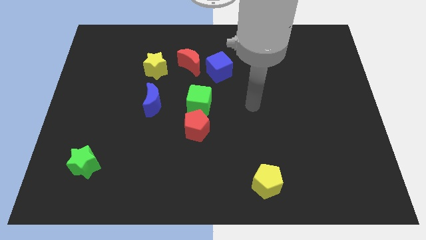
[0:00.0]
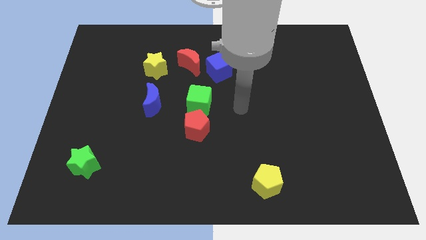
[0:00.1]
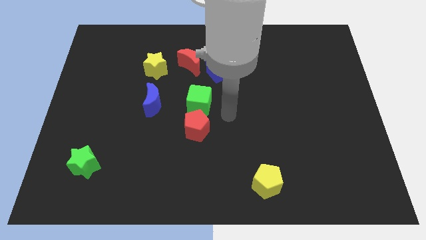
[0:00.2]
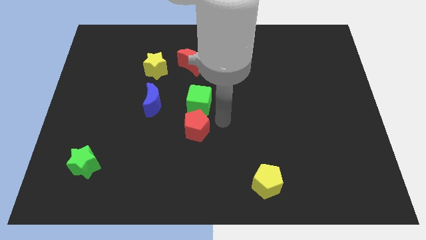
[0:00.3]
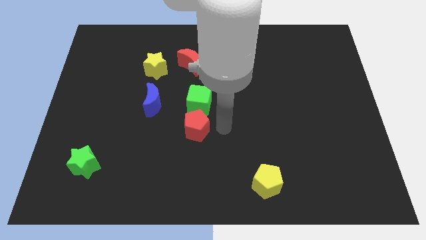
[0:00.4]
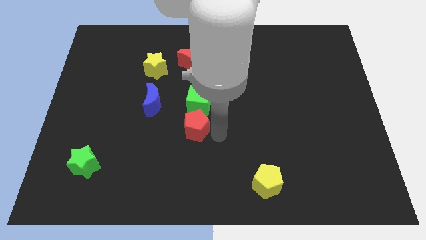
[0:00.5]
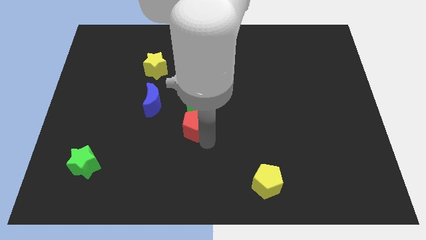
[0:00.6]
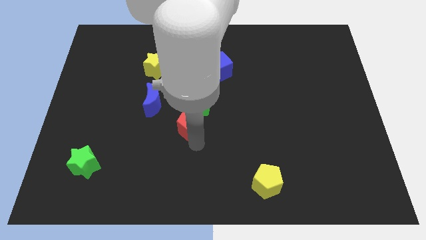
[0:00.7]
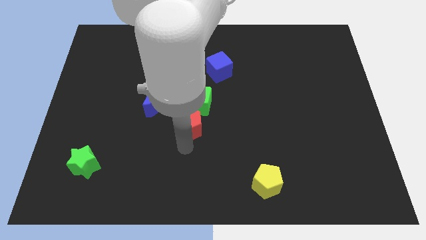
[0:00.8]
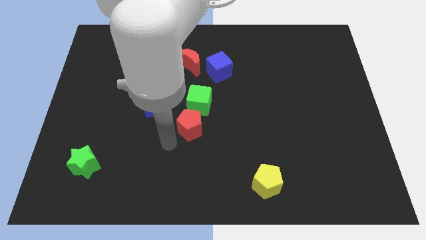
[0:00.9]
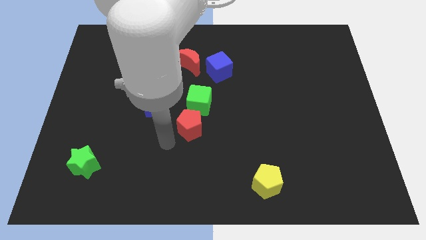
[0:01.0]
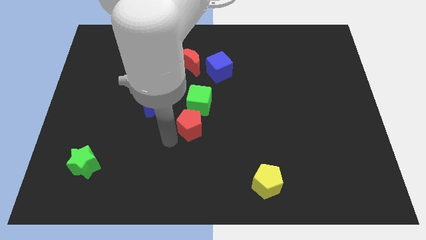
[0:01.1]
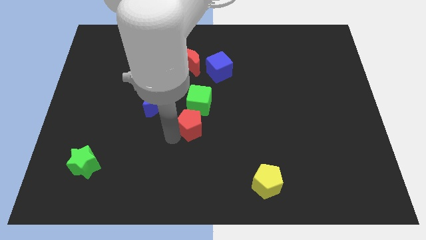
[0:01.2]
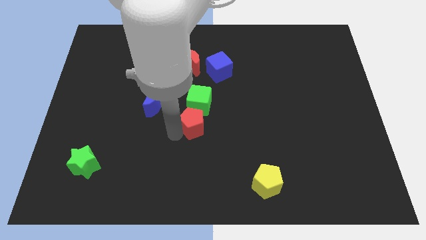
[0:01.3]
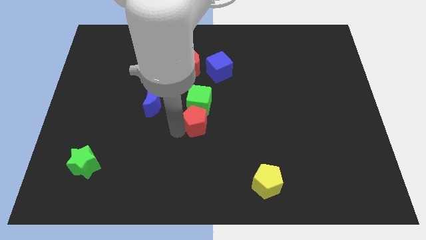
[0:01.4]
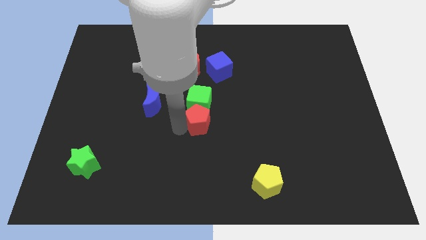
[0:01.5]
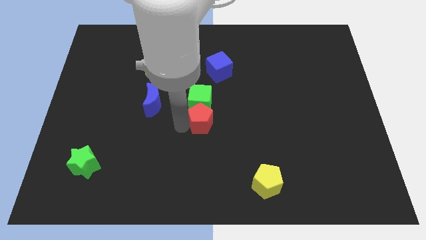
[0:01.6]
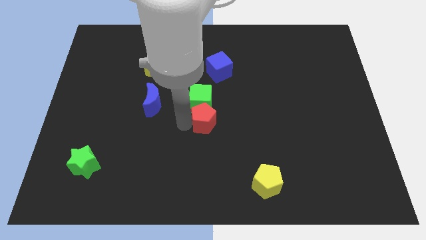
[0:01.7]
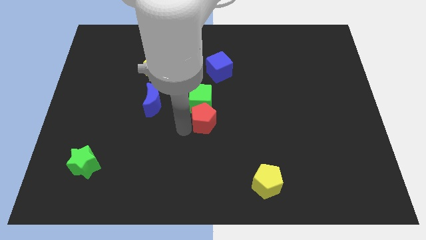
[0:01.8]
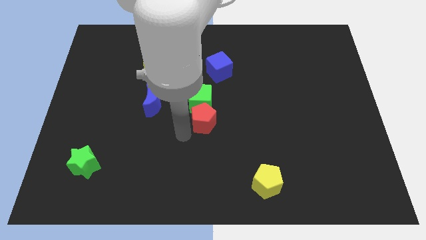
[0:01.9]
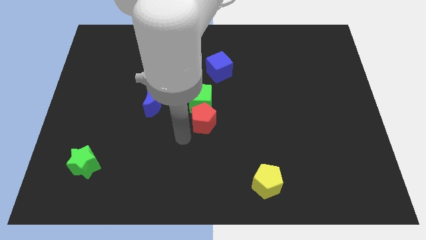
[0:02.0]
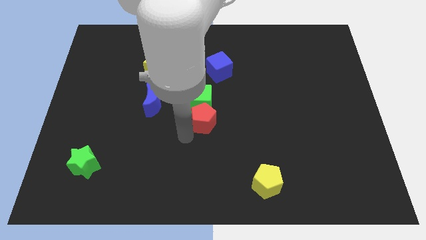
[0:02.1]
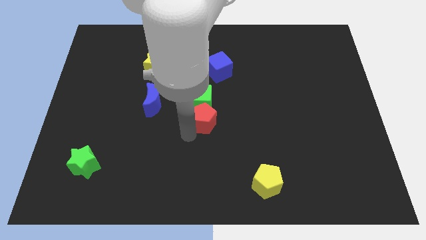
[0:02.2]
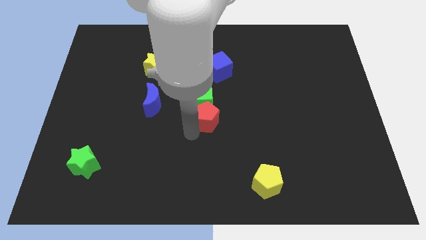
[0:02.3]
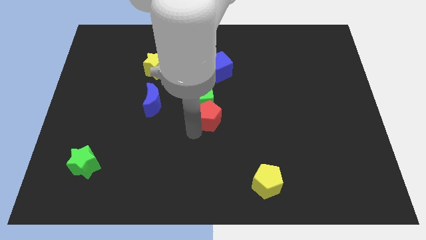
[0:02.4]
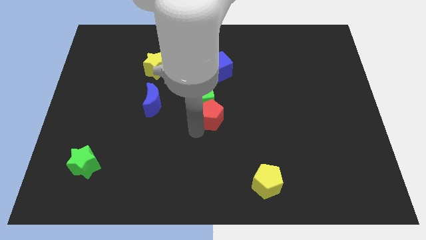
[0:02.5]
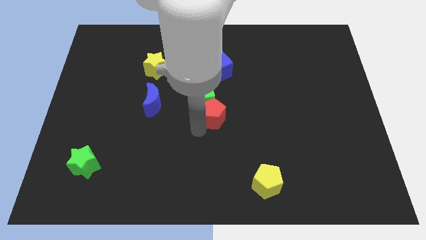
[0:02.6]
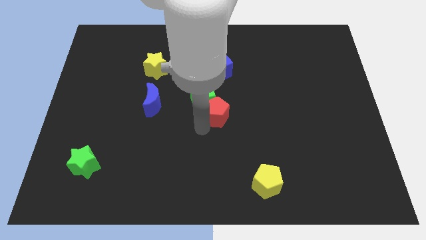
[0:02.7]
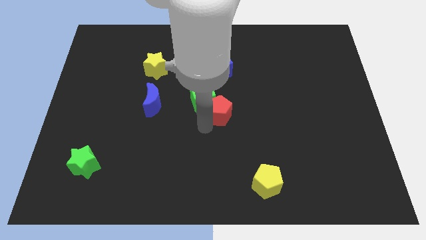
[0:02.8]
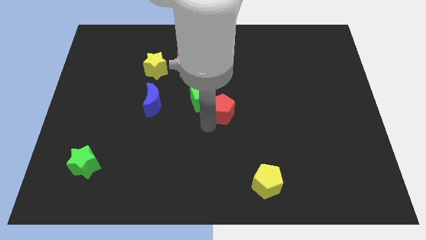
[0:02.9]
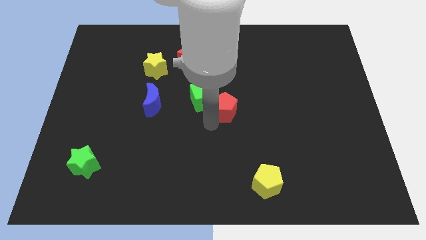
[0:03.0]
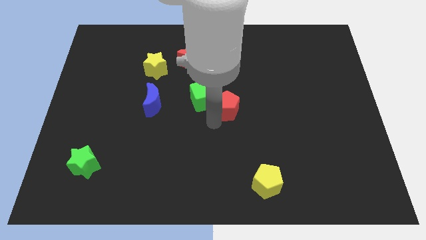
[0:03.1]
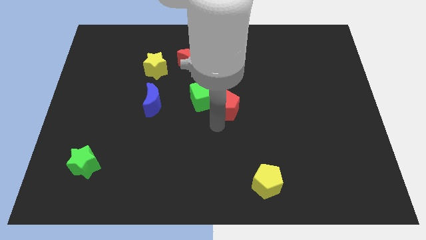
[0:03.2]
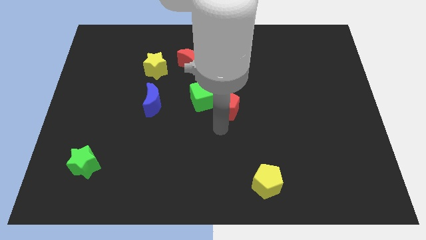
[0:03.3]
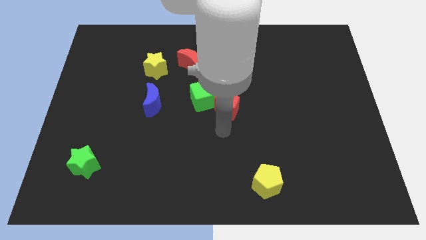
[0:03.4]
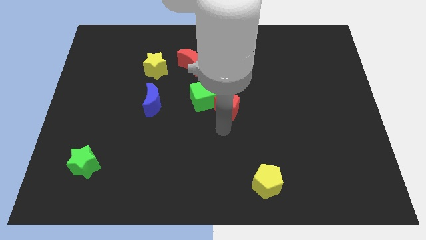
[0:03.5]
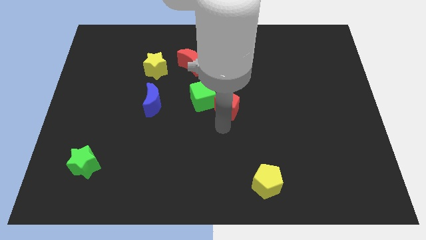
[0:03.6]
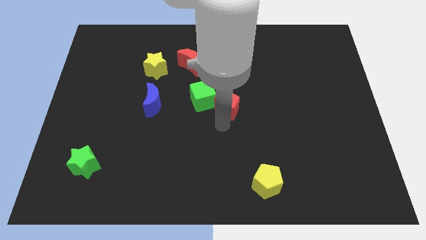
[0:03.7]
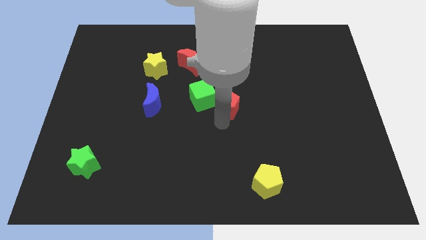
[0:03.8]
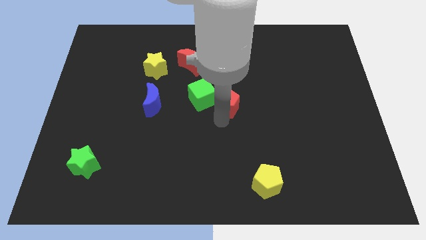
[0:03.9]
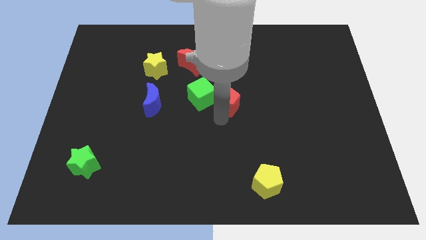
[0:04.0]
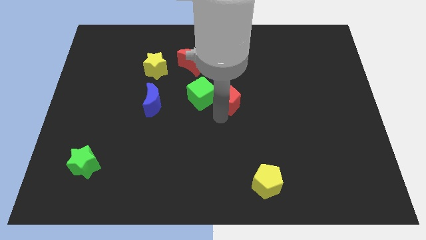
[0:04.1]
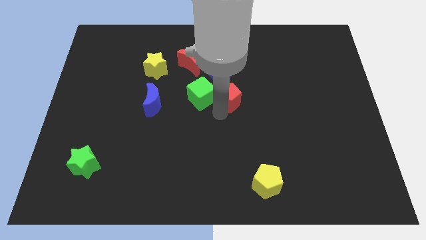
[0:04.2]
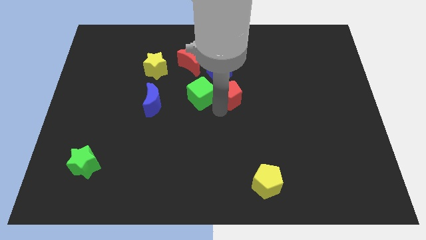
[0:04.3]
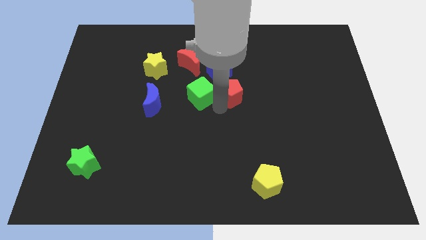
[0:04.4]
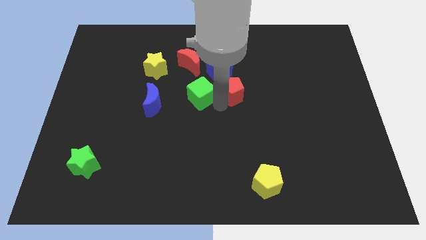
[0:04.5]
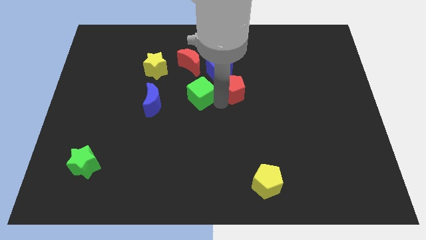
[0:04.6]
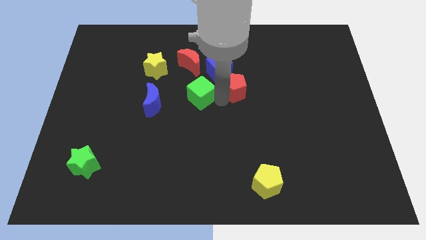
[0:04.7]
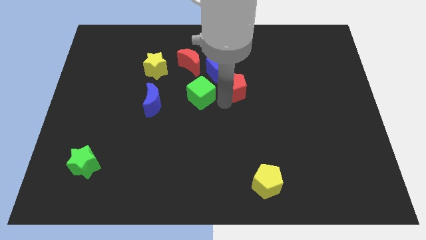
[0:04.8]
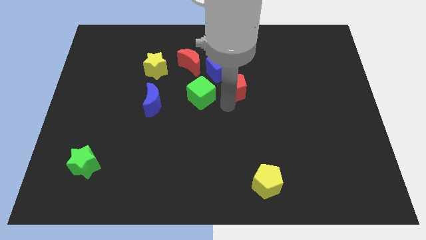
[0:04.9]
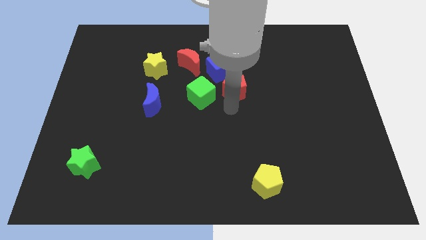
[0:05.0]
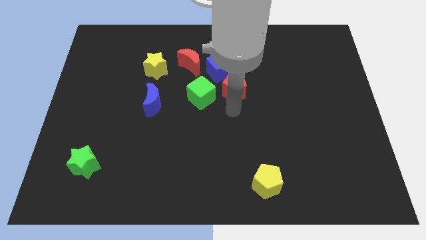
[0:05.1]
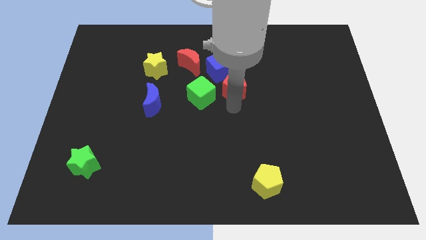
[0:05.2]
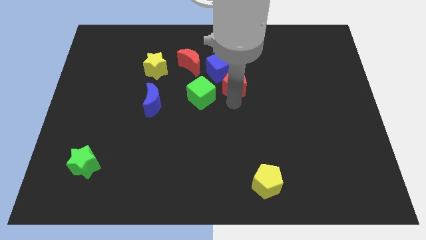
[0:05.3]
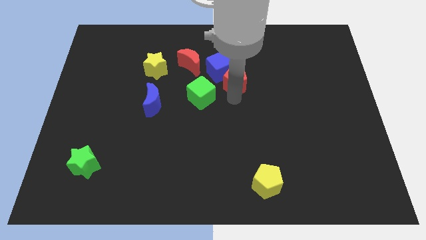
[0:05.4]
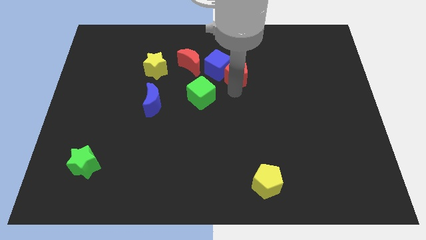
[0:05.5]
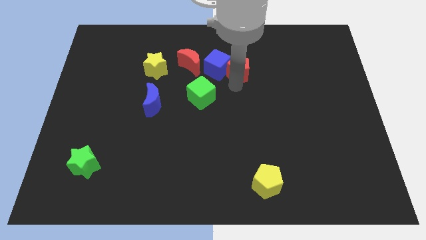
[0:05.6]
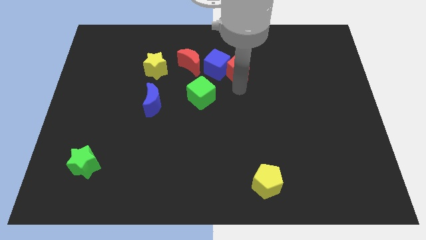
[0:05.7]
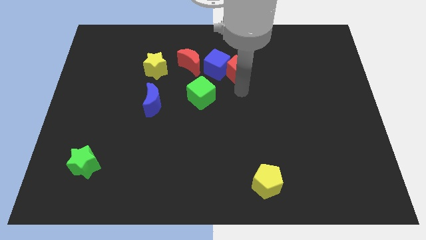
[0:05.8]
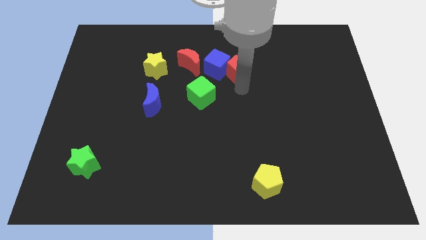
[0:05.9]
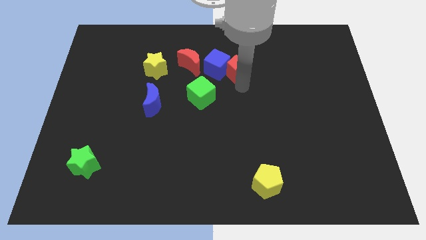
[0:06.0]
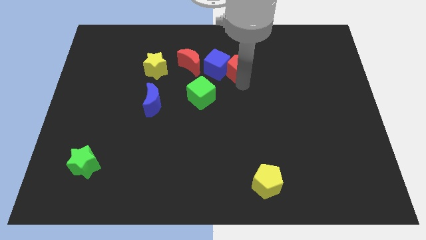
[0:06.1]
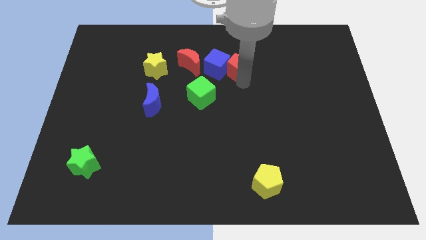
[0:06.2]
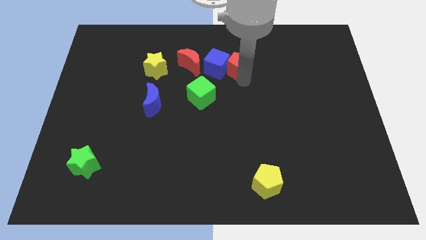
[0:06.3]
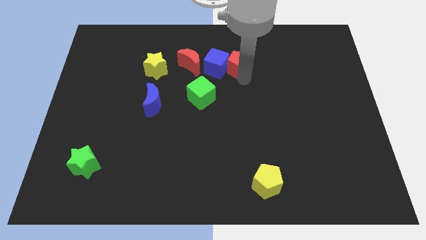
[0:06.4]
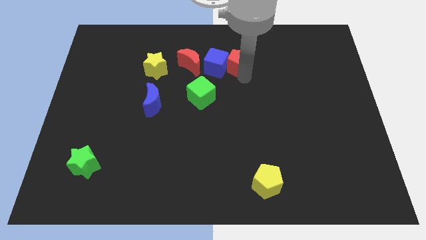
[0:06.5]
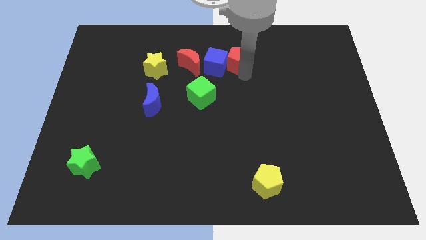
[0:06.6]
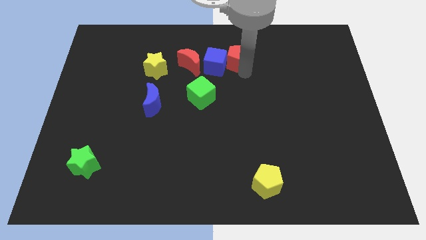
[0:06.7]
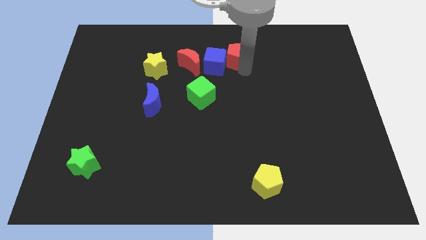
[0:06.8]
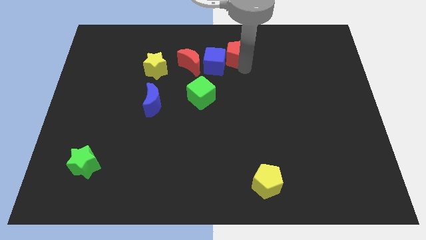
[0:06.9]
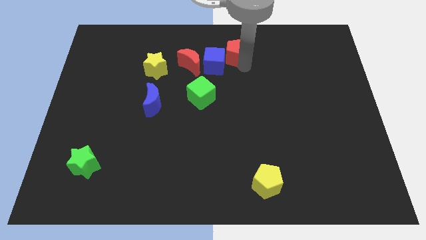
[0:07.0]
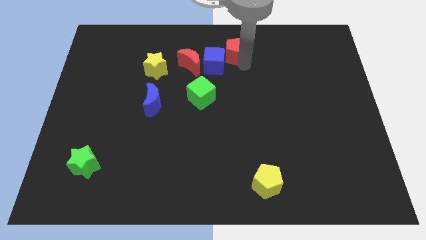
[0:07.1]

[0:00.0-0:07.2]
move the red pentagon to the towards your base

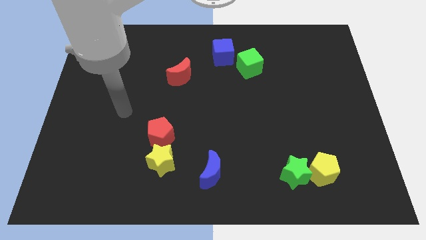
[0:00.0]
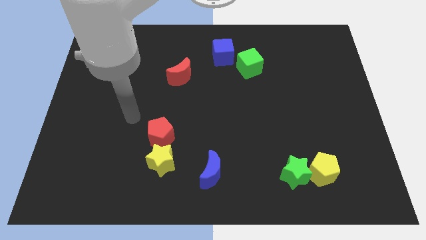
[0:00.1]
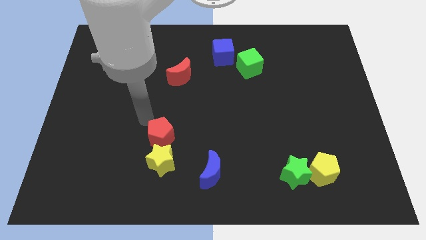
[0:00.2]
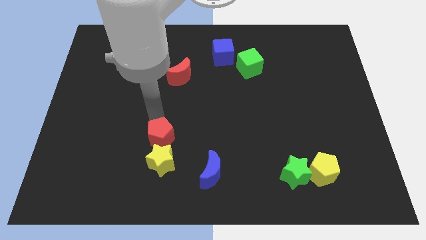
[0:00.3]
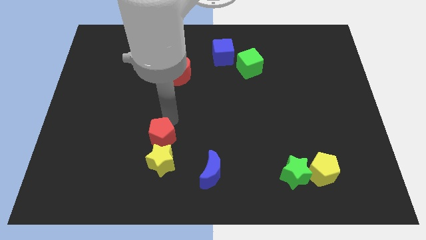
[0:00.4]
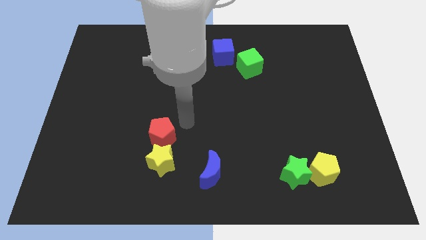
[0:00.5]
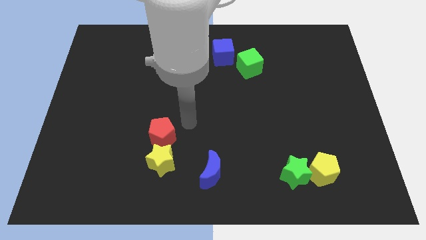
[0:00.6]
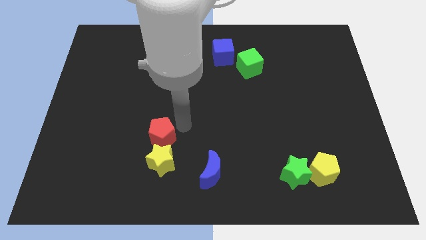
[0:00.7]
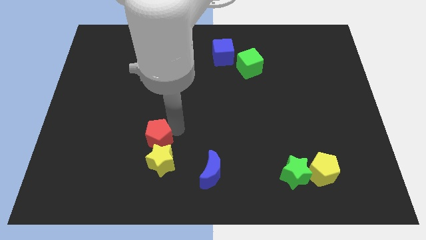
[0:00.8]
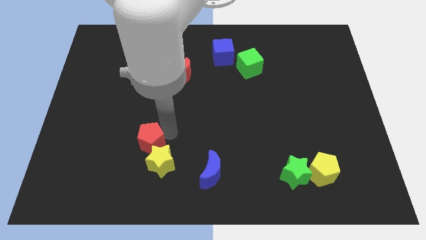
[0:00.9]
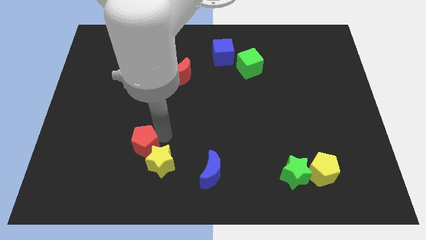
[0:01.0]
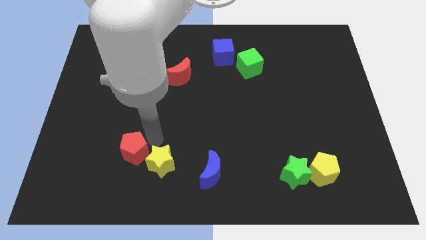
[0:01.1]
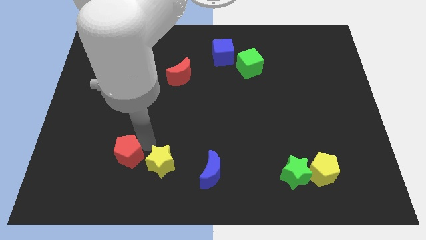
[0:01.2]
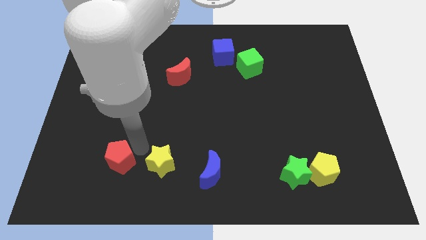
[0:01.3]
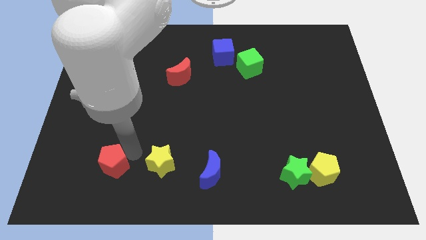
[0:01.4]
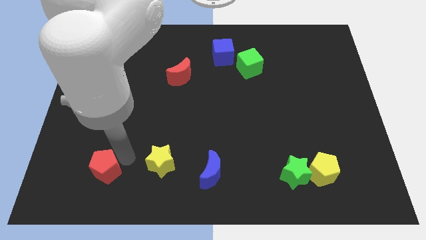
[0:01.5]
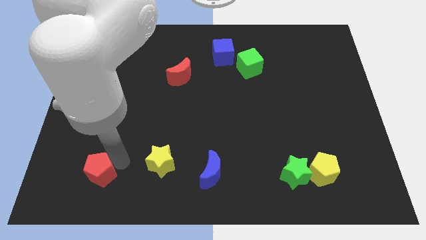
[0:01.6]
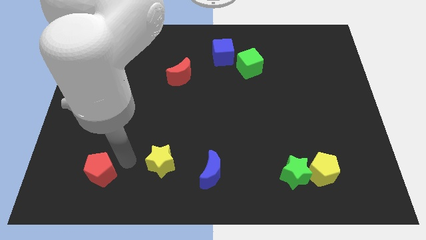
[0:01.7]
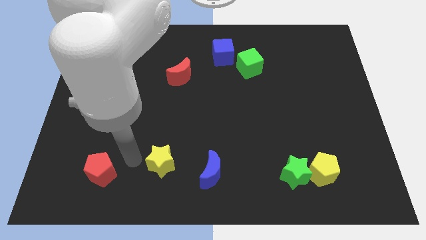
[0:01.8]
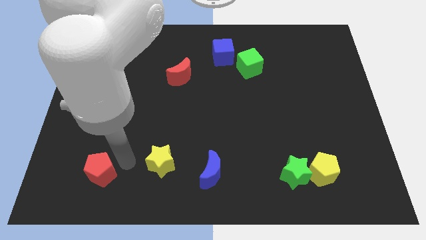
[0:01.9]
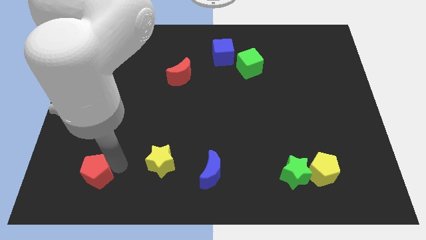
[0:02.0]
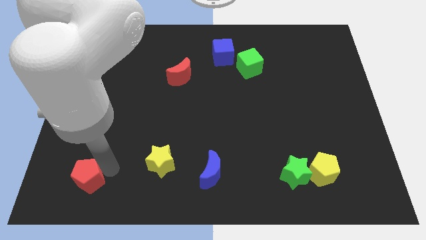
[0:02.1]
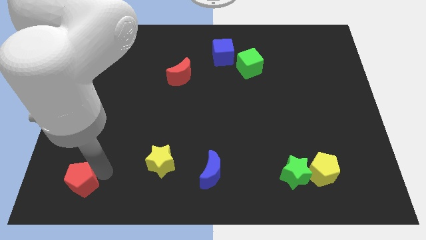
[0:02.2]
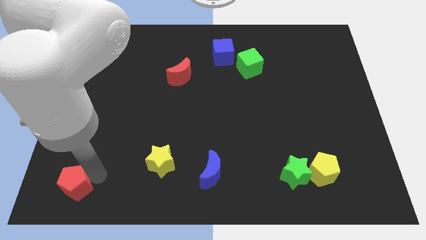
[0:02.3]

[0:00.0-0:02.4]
push the red pentagon to the lower left corner
